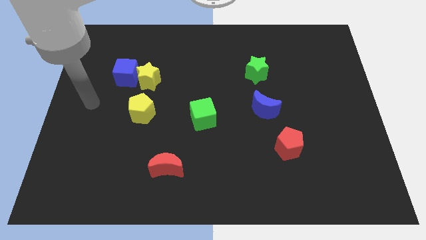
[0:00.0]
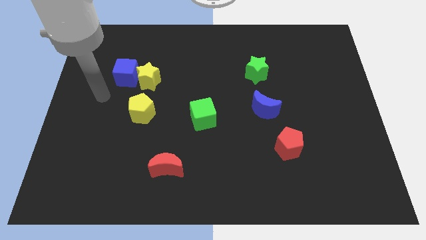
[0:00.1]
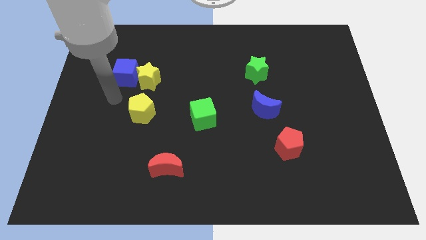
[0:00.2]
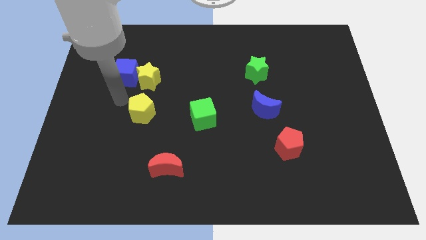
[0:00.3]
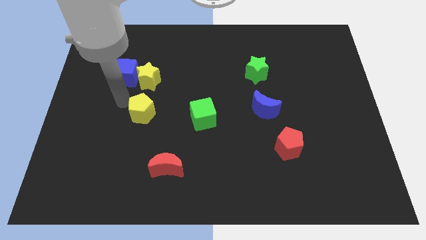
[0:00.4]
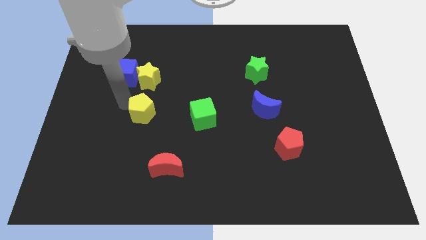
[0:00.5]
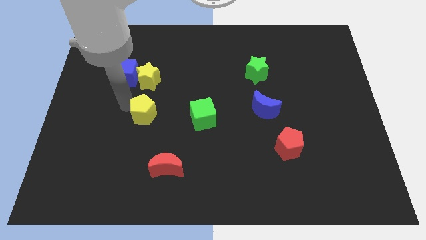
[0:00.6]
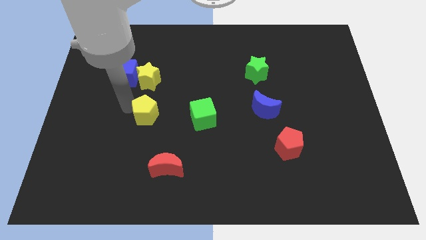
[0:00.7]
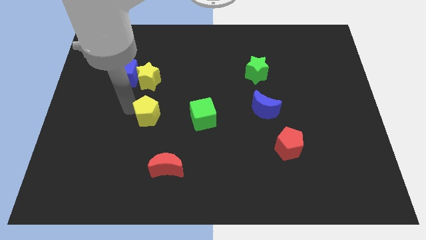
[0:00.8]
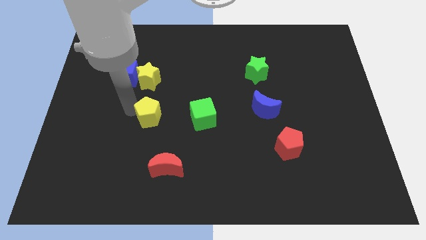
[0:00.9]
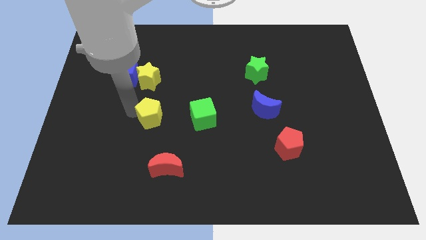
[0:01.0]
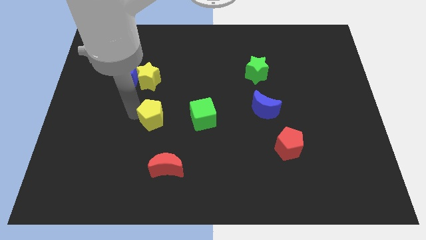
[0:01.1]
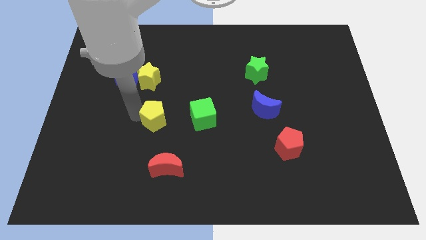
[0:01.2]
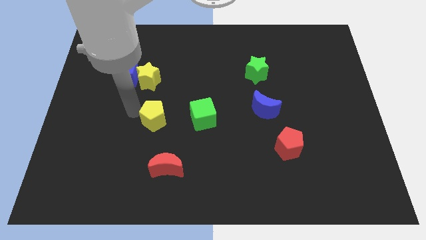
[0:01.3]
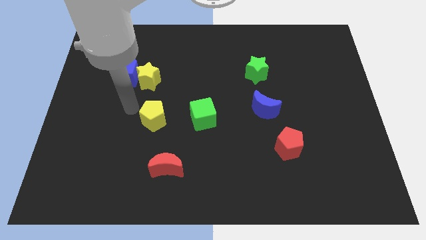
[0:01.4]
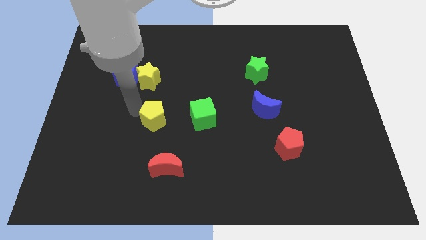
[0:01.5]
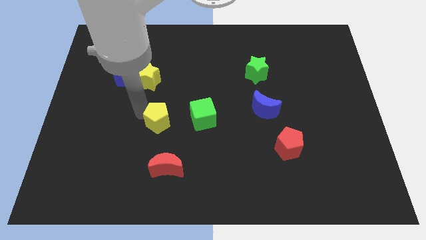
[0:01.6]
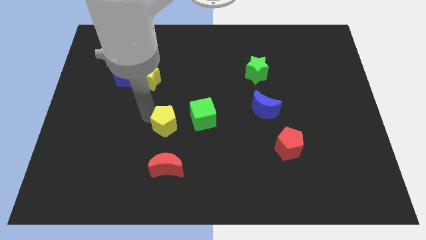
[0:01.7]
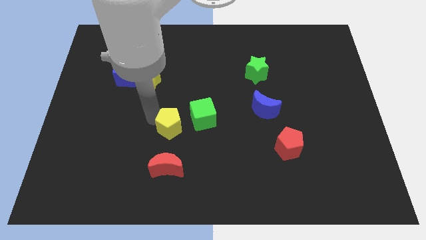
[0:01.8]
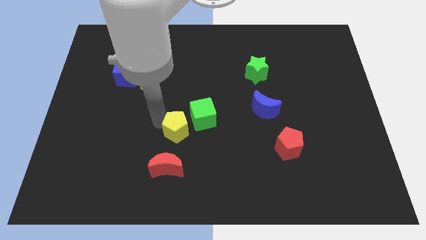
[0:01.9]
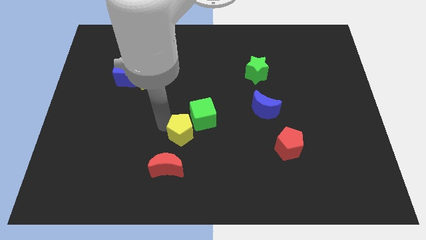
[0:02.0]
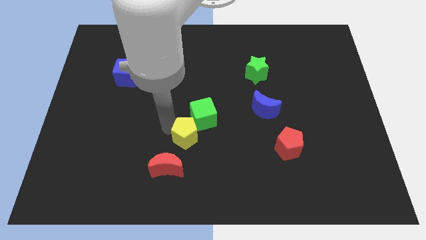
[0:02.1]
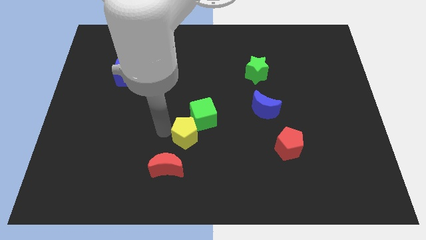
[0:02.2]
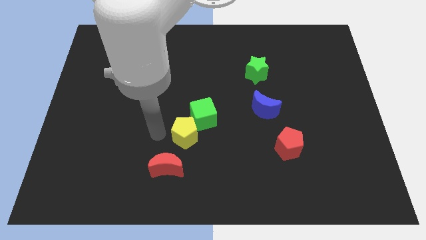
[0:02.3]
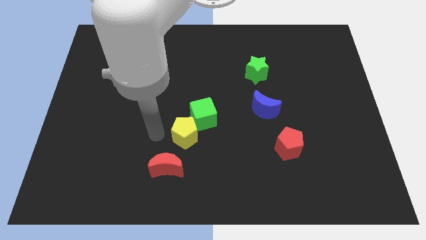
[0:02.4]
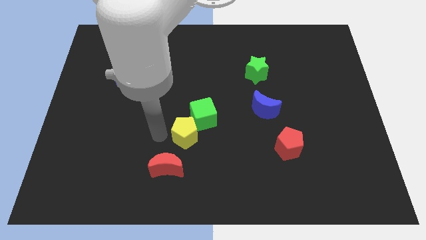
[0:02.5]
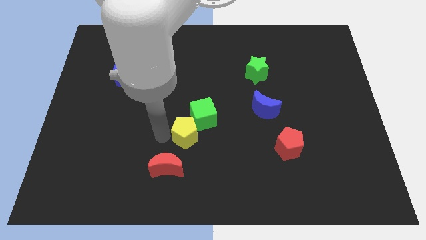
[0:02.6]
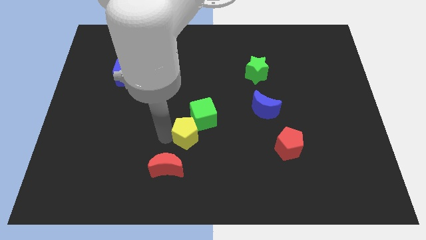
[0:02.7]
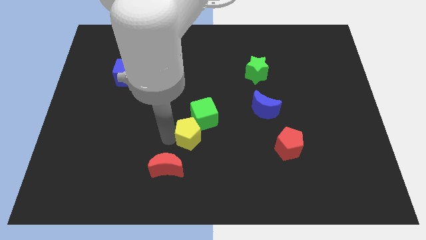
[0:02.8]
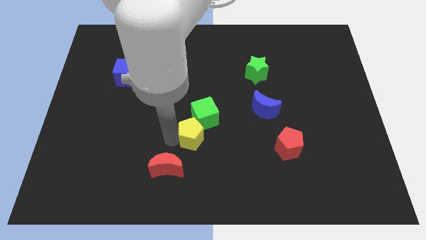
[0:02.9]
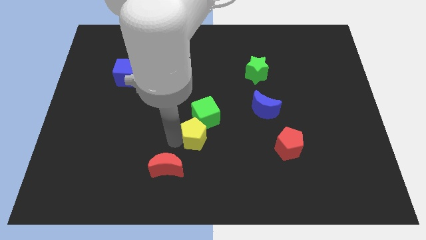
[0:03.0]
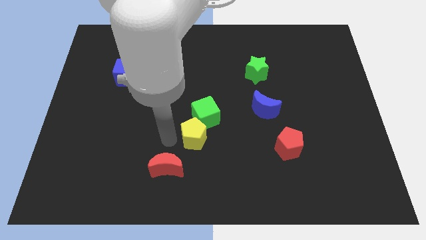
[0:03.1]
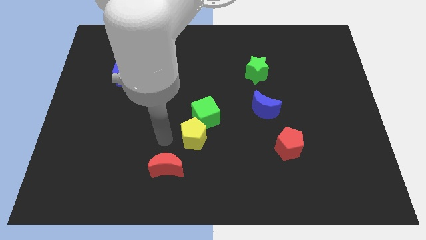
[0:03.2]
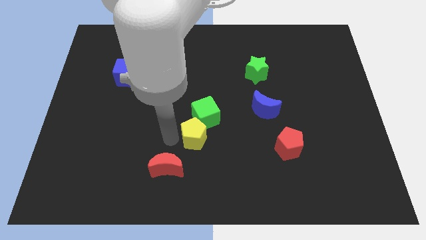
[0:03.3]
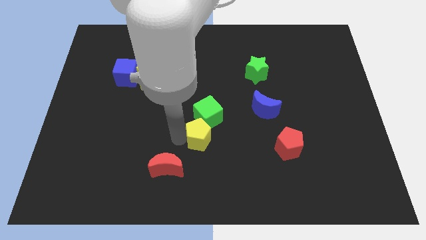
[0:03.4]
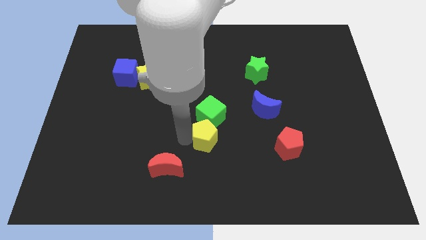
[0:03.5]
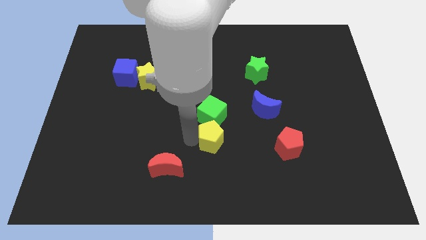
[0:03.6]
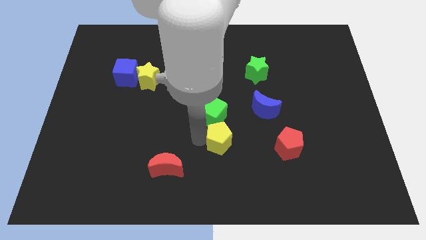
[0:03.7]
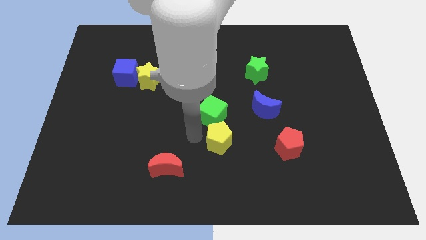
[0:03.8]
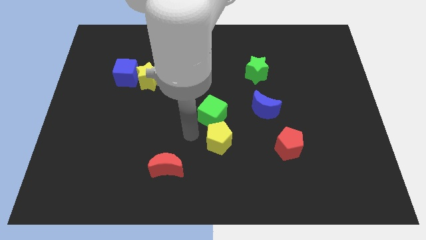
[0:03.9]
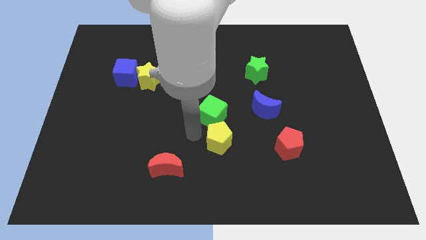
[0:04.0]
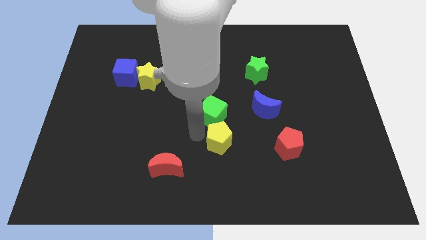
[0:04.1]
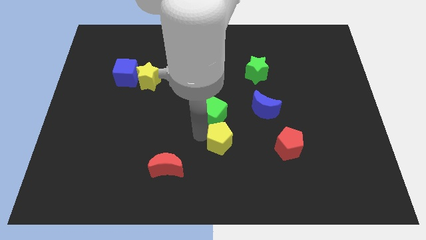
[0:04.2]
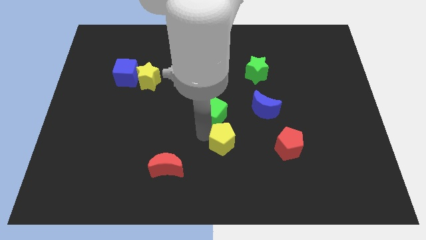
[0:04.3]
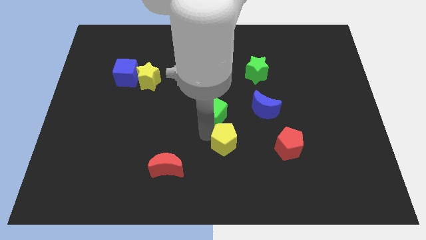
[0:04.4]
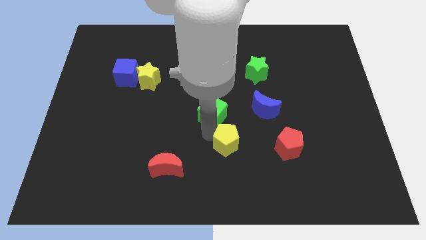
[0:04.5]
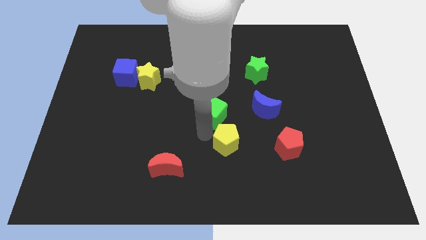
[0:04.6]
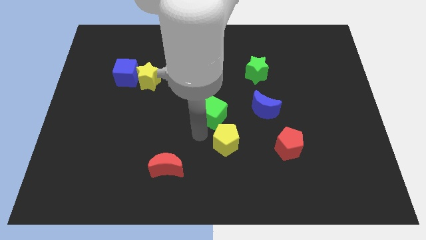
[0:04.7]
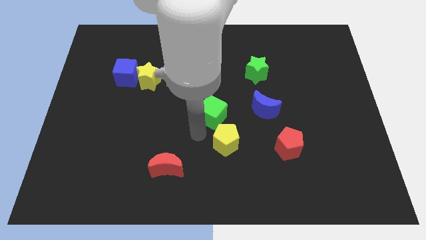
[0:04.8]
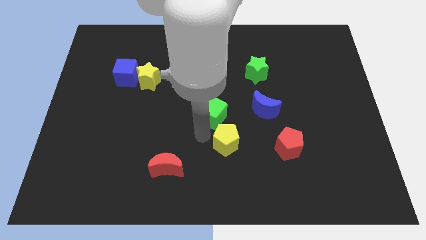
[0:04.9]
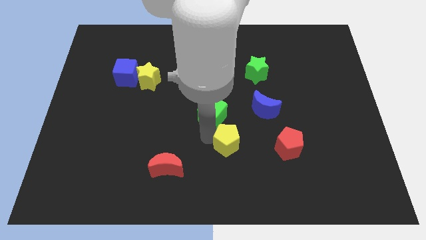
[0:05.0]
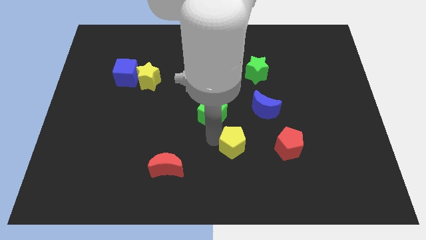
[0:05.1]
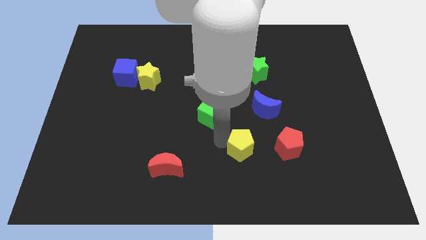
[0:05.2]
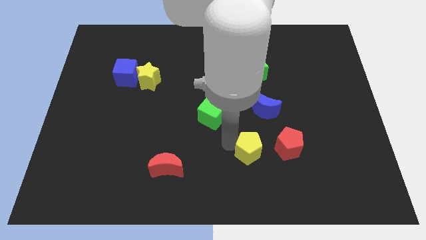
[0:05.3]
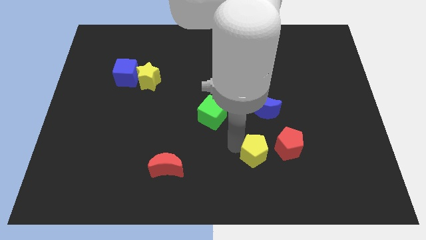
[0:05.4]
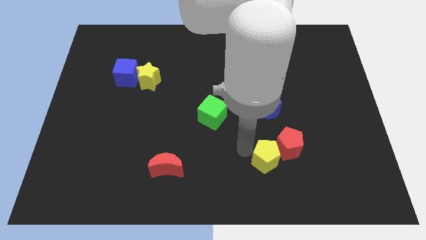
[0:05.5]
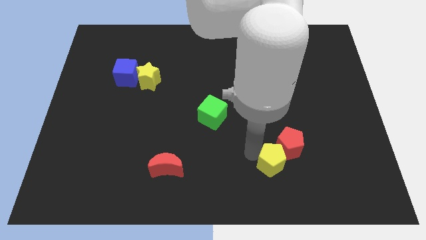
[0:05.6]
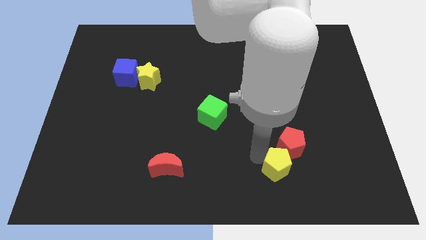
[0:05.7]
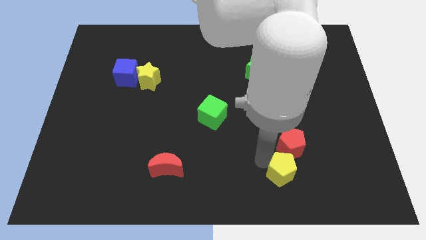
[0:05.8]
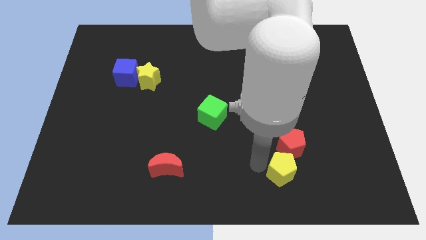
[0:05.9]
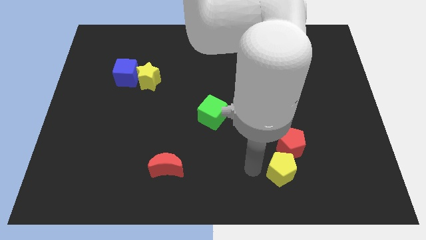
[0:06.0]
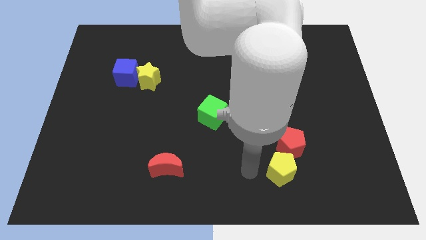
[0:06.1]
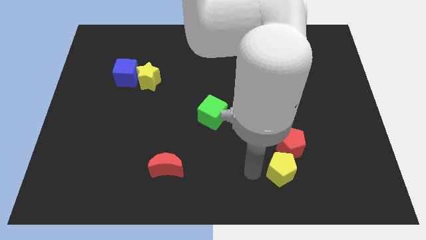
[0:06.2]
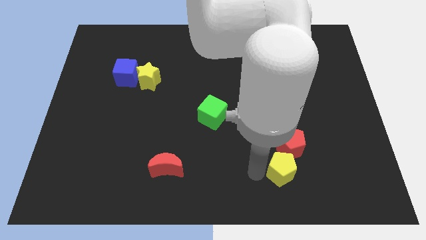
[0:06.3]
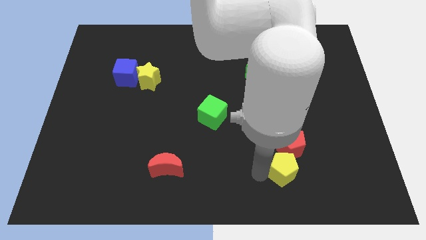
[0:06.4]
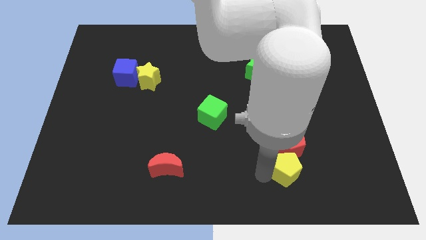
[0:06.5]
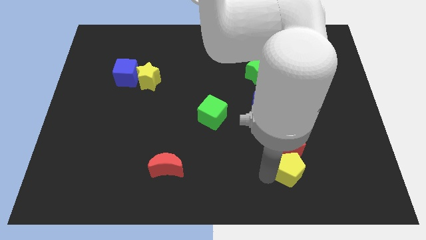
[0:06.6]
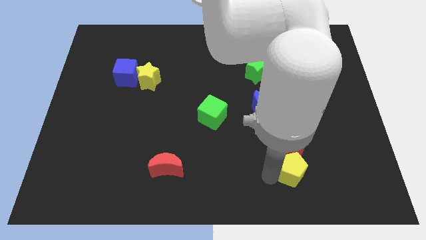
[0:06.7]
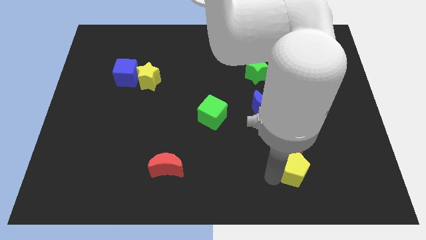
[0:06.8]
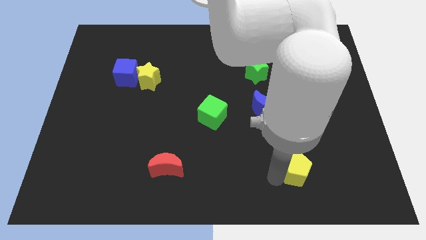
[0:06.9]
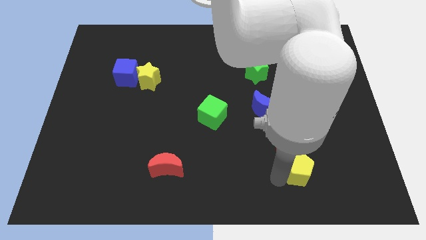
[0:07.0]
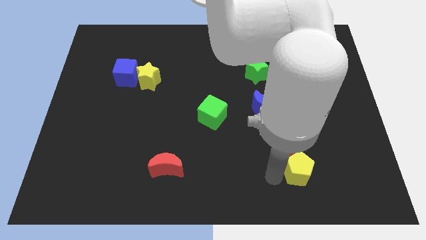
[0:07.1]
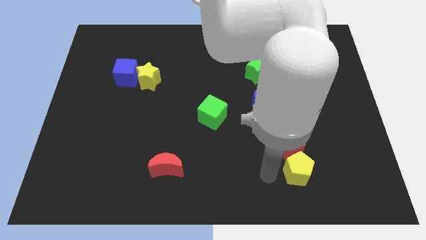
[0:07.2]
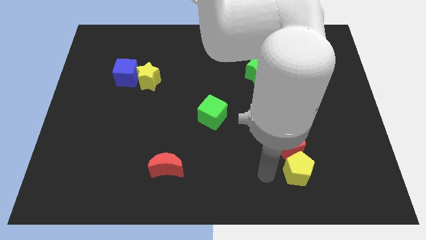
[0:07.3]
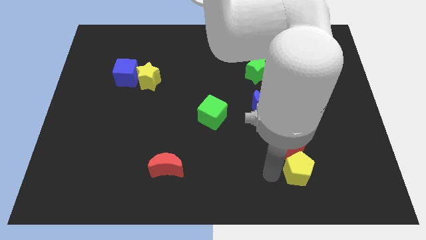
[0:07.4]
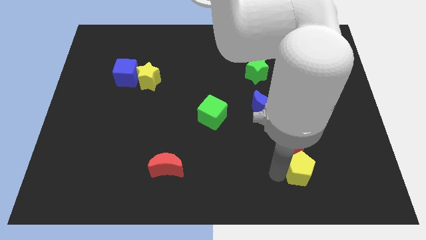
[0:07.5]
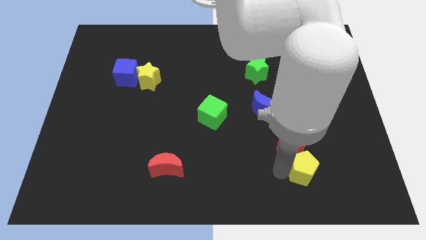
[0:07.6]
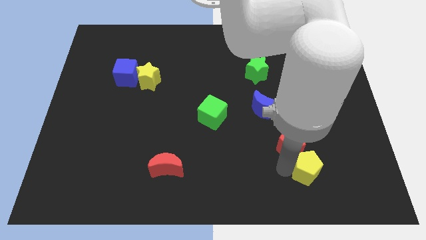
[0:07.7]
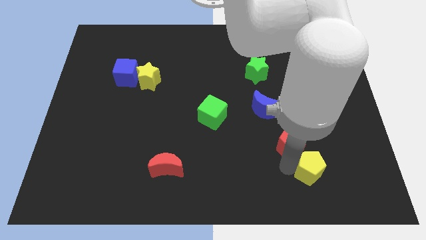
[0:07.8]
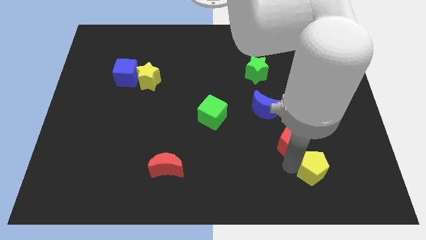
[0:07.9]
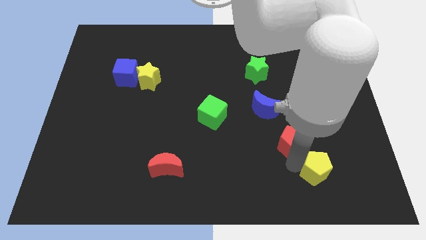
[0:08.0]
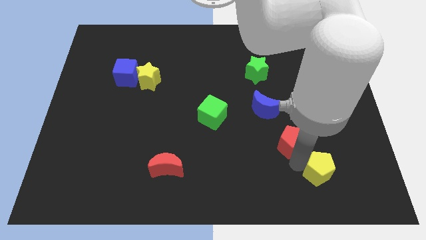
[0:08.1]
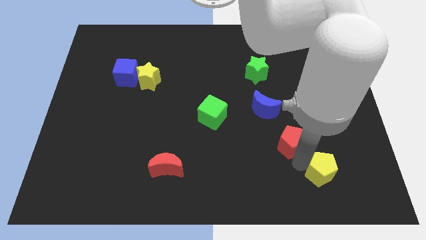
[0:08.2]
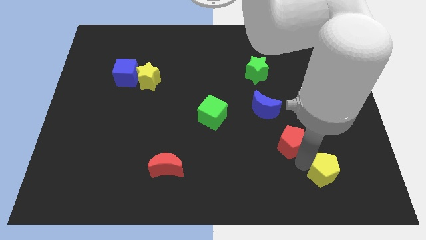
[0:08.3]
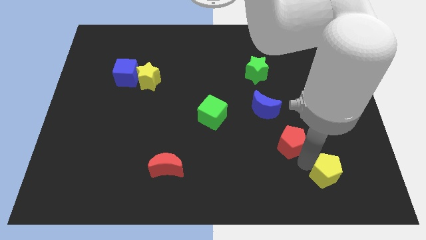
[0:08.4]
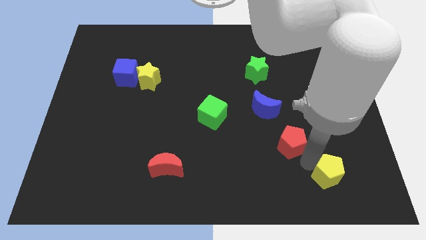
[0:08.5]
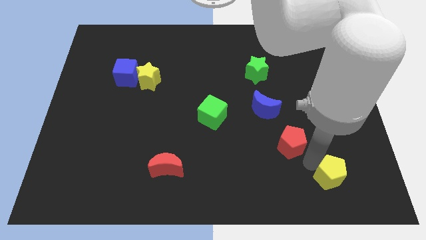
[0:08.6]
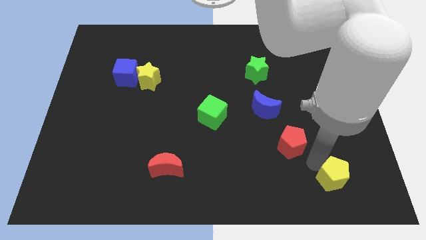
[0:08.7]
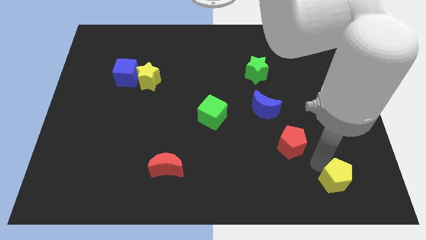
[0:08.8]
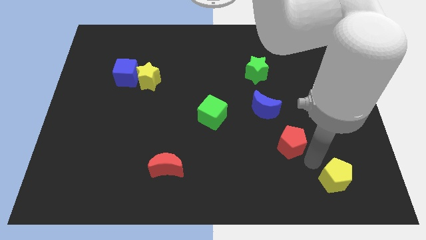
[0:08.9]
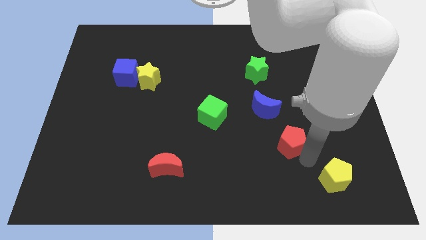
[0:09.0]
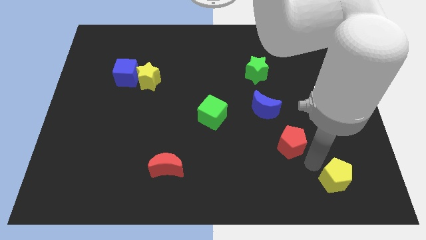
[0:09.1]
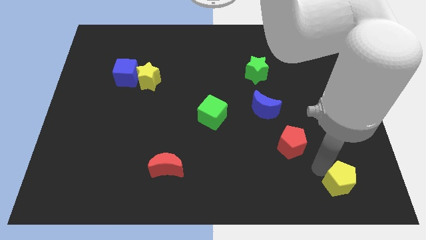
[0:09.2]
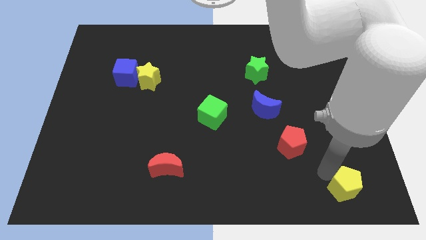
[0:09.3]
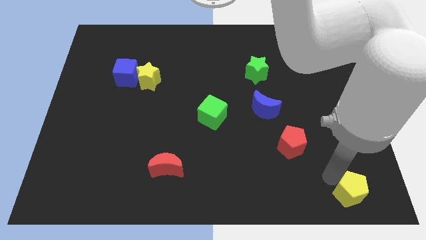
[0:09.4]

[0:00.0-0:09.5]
slide the yellow pentagon to the bottom right corner
